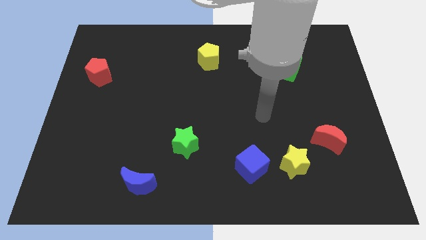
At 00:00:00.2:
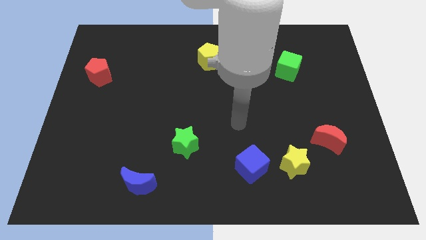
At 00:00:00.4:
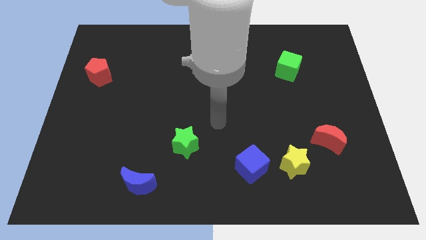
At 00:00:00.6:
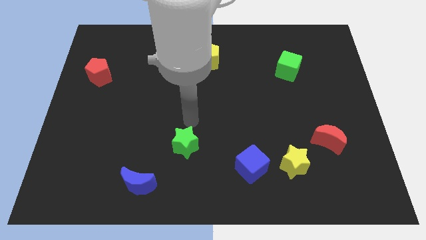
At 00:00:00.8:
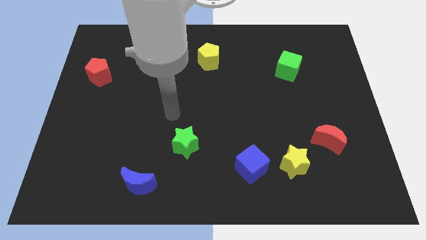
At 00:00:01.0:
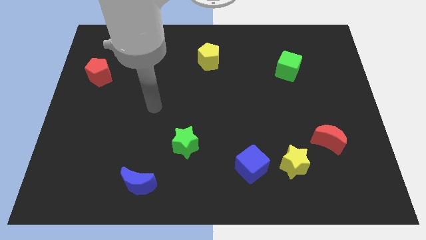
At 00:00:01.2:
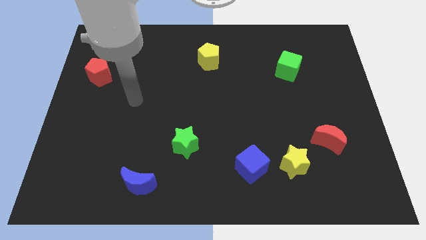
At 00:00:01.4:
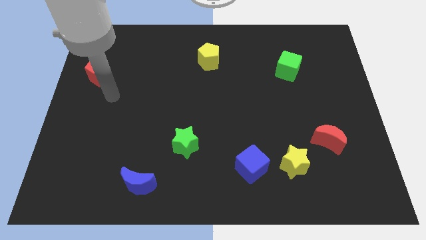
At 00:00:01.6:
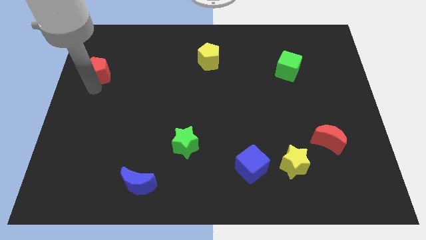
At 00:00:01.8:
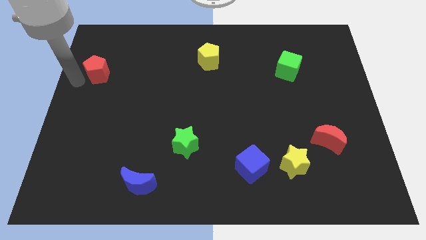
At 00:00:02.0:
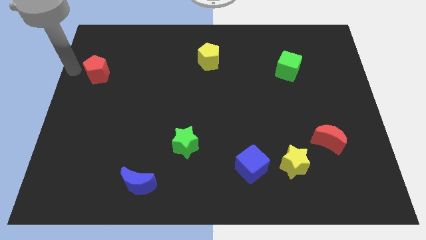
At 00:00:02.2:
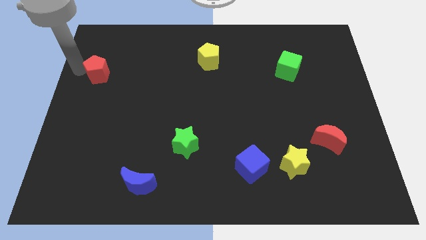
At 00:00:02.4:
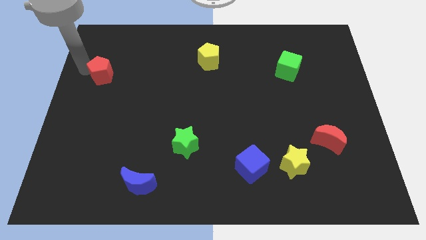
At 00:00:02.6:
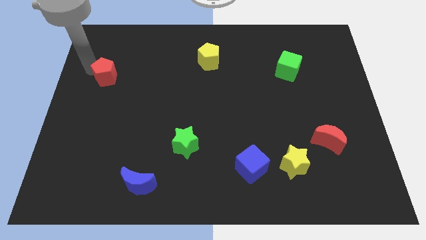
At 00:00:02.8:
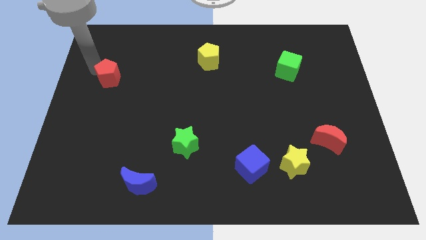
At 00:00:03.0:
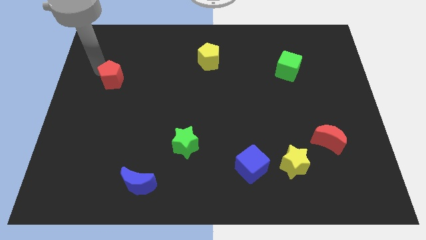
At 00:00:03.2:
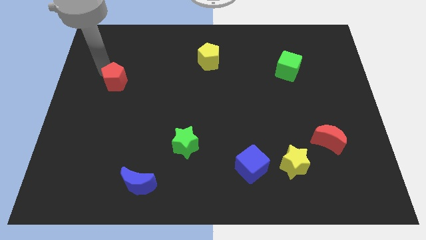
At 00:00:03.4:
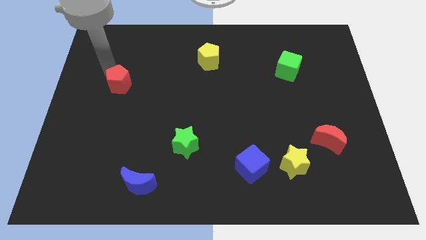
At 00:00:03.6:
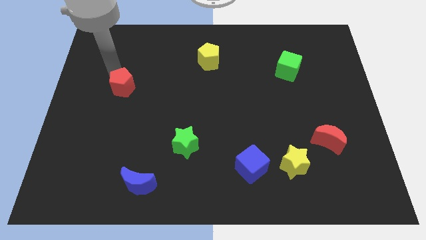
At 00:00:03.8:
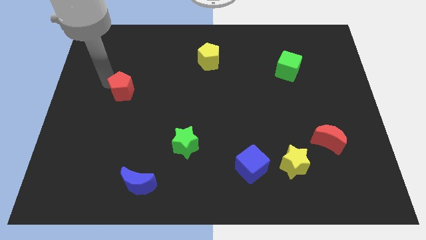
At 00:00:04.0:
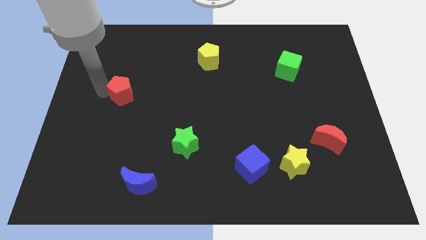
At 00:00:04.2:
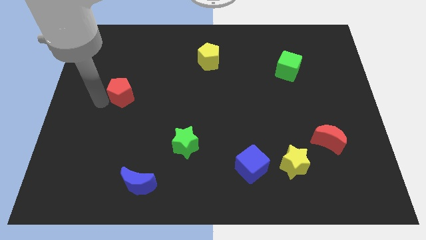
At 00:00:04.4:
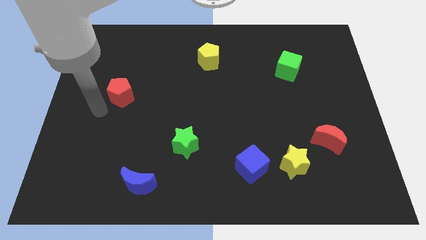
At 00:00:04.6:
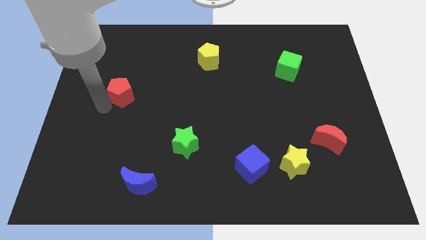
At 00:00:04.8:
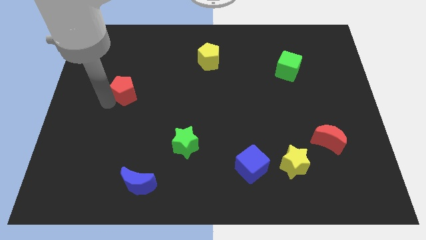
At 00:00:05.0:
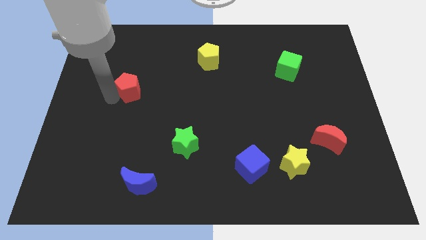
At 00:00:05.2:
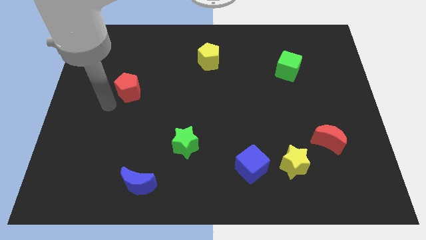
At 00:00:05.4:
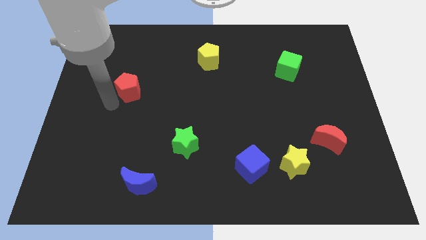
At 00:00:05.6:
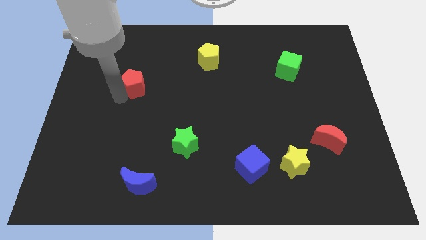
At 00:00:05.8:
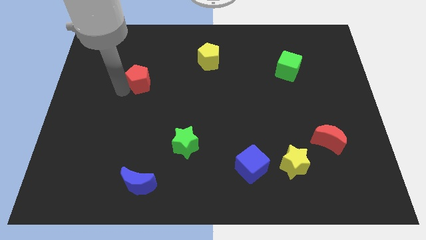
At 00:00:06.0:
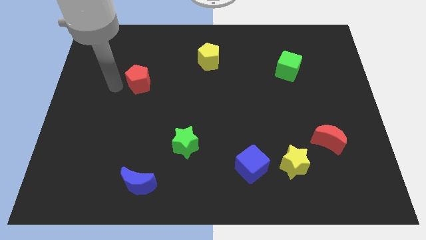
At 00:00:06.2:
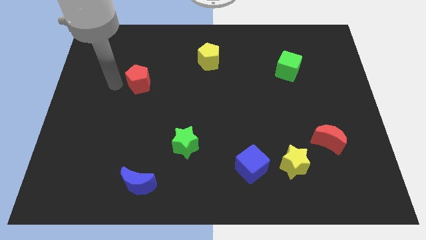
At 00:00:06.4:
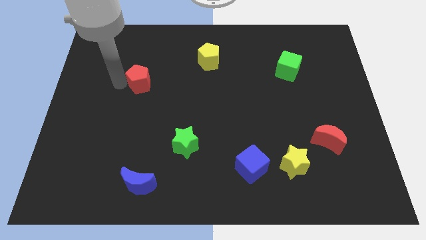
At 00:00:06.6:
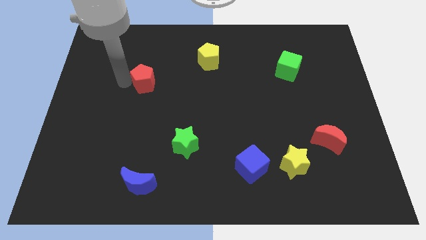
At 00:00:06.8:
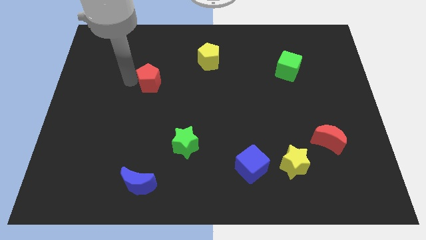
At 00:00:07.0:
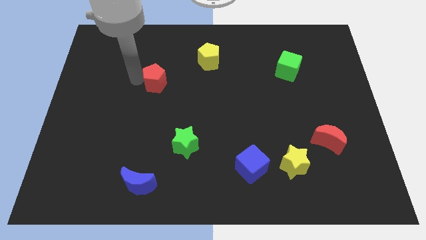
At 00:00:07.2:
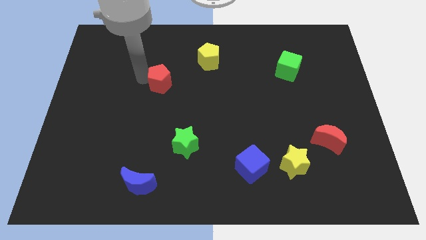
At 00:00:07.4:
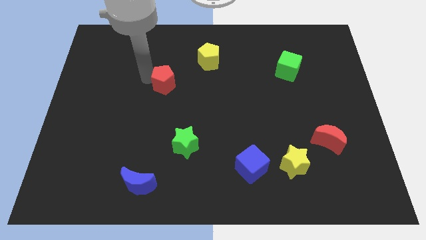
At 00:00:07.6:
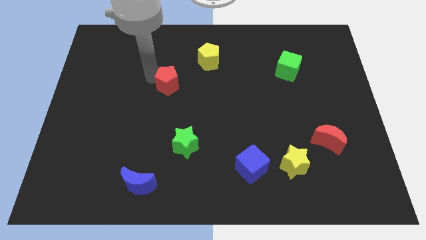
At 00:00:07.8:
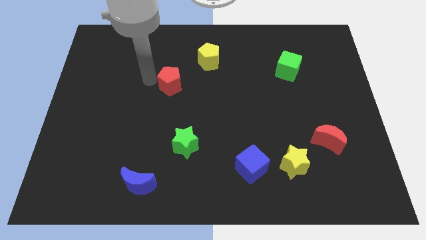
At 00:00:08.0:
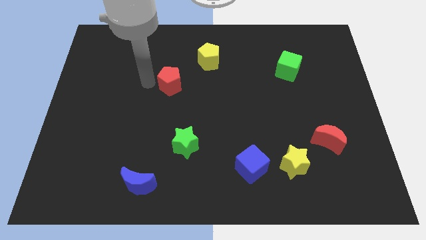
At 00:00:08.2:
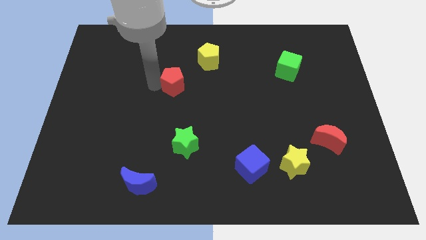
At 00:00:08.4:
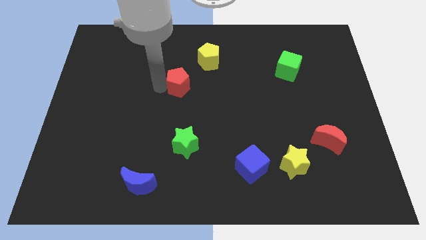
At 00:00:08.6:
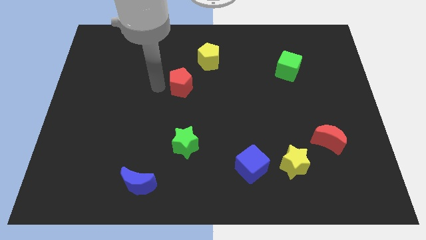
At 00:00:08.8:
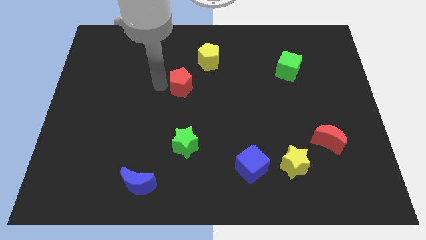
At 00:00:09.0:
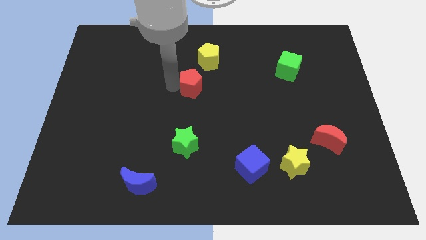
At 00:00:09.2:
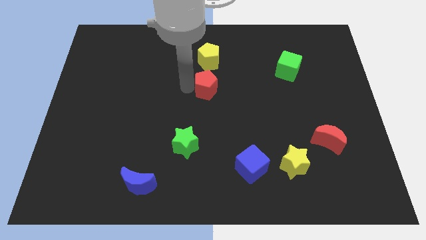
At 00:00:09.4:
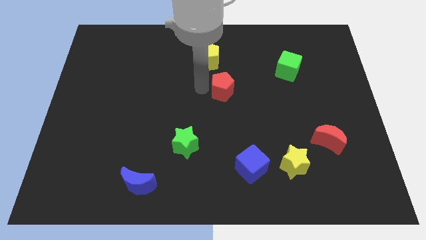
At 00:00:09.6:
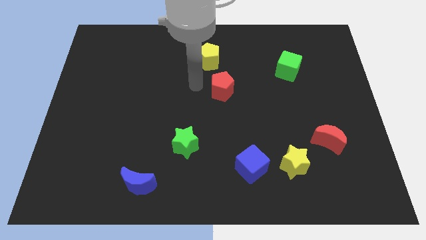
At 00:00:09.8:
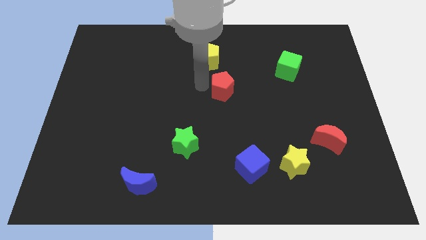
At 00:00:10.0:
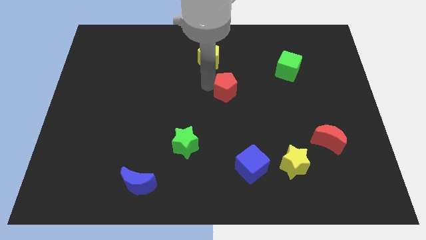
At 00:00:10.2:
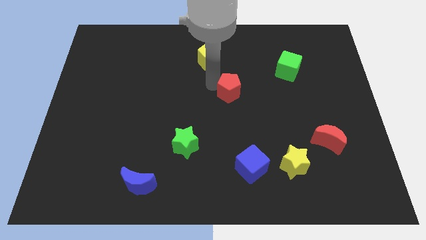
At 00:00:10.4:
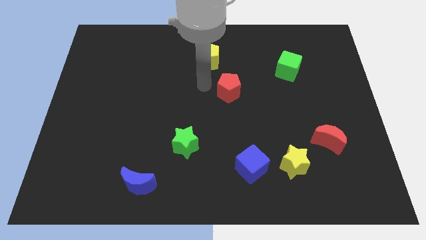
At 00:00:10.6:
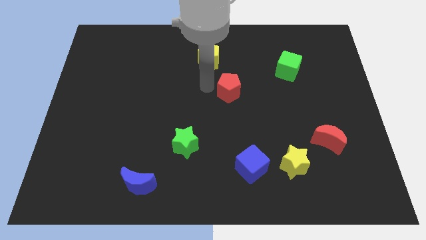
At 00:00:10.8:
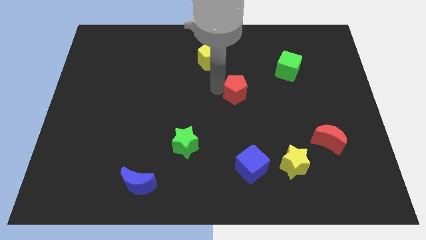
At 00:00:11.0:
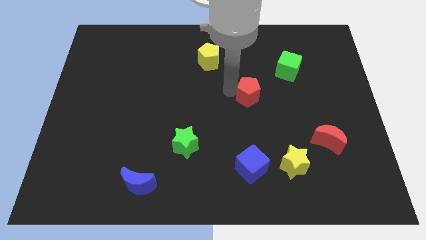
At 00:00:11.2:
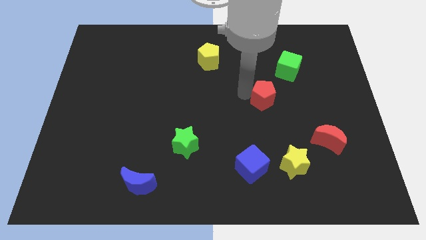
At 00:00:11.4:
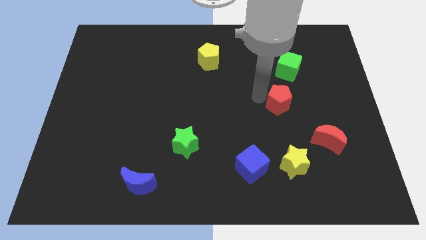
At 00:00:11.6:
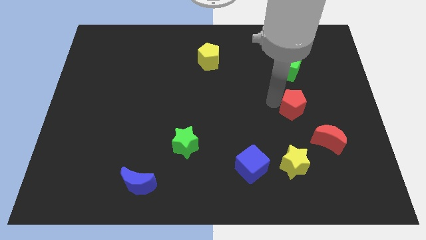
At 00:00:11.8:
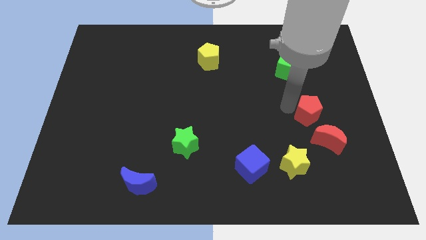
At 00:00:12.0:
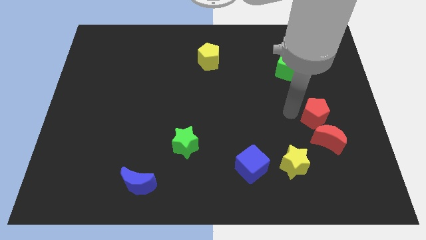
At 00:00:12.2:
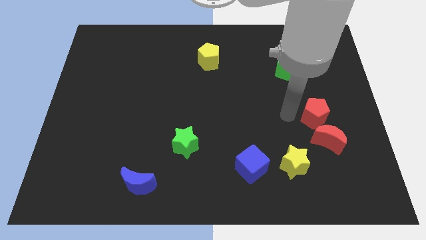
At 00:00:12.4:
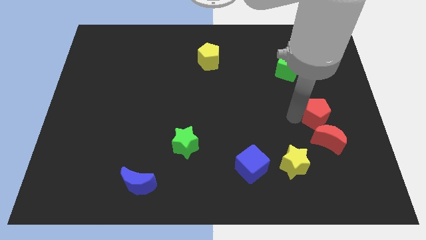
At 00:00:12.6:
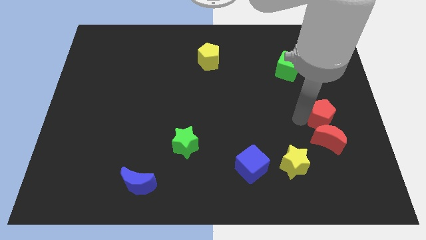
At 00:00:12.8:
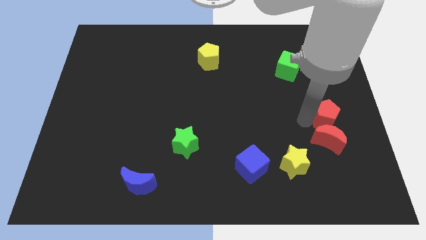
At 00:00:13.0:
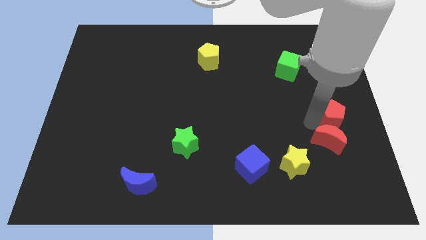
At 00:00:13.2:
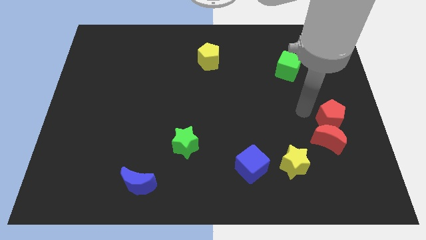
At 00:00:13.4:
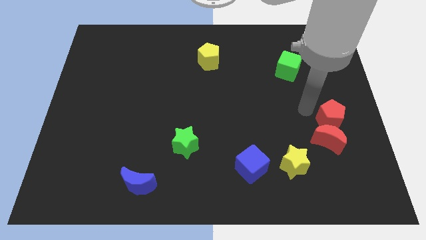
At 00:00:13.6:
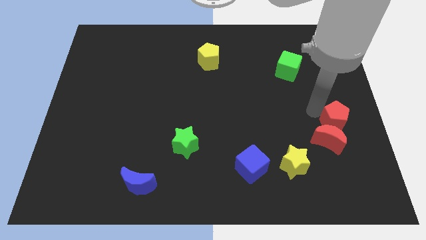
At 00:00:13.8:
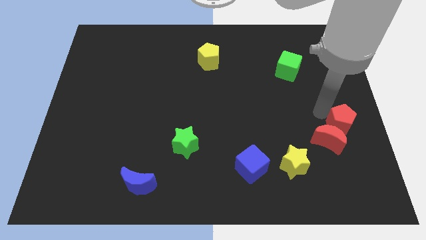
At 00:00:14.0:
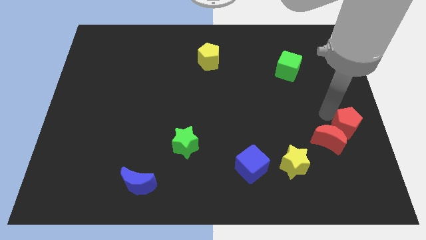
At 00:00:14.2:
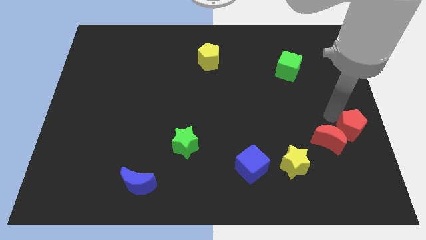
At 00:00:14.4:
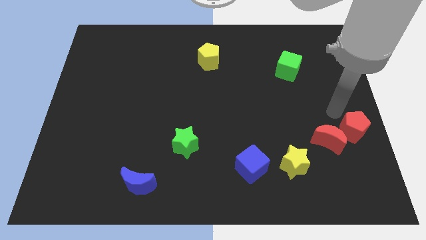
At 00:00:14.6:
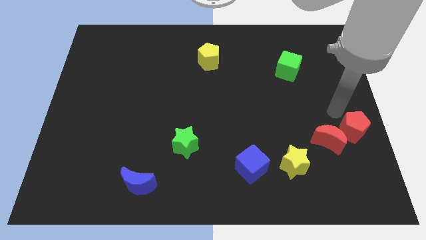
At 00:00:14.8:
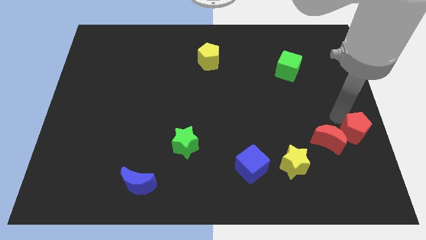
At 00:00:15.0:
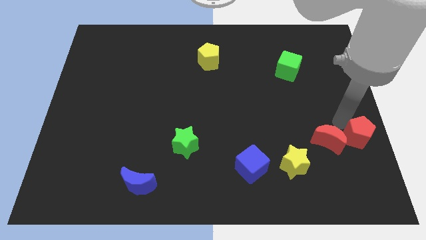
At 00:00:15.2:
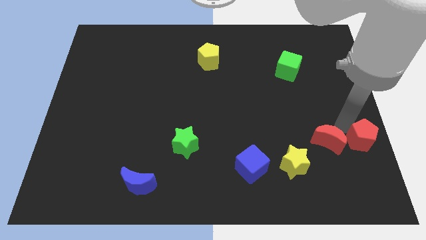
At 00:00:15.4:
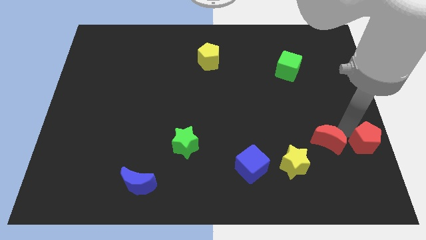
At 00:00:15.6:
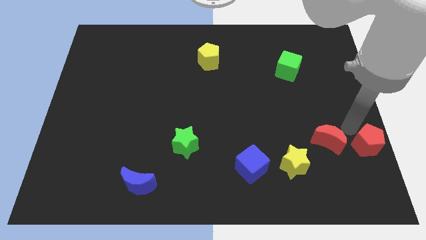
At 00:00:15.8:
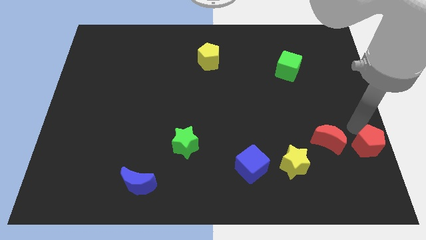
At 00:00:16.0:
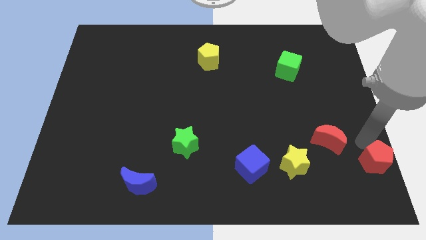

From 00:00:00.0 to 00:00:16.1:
put the red pentagon to the lower right corner
